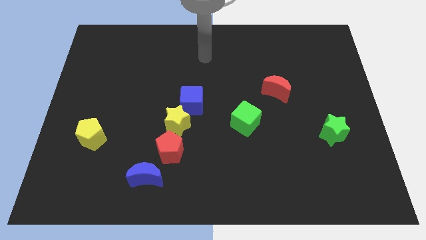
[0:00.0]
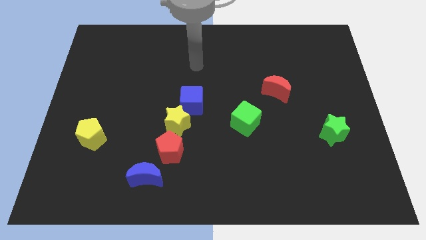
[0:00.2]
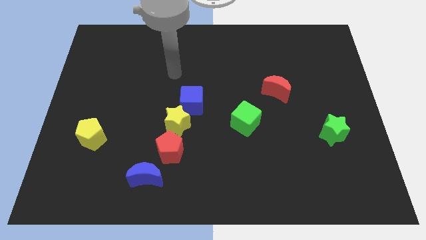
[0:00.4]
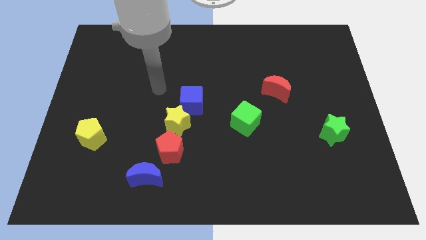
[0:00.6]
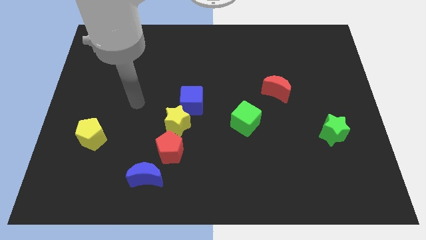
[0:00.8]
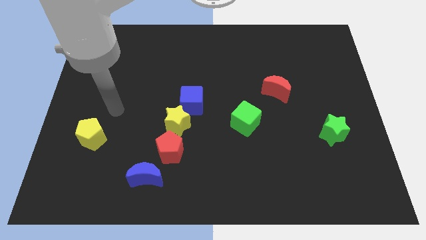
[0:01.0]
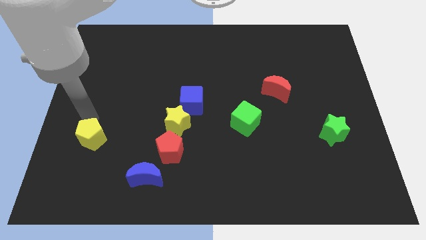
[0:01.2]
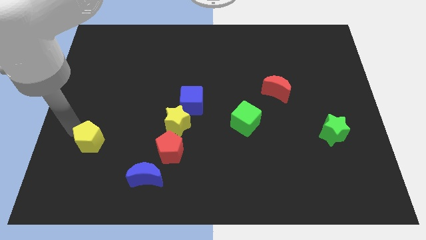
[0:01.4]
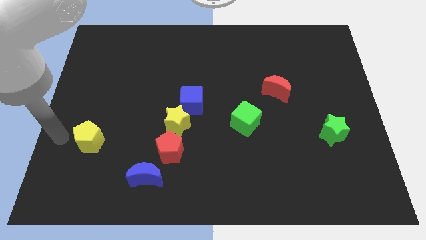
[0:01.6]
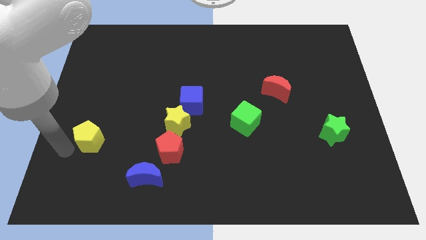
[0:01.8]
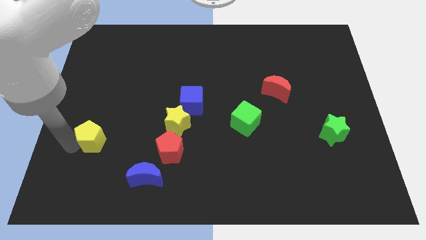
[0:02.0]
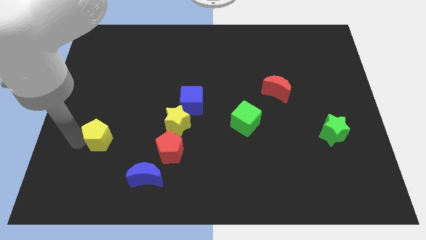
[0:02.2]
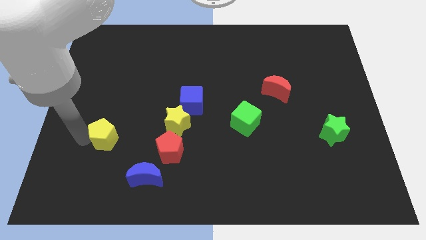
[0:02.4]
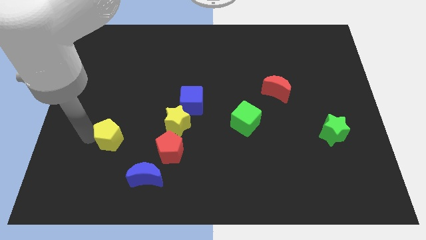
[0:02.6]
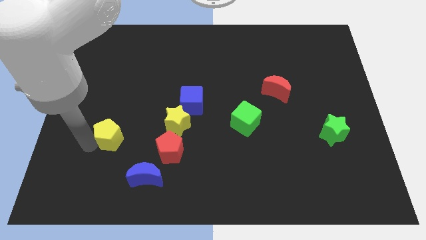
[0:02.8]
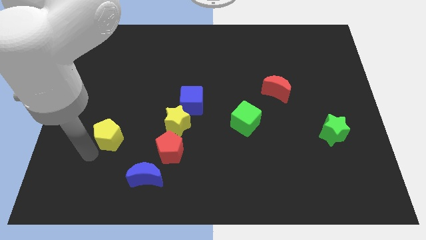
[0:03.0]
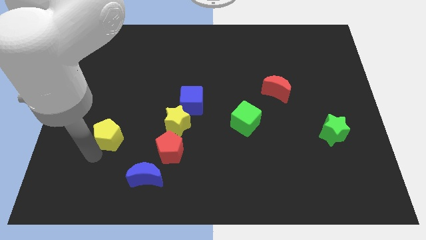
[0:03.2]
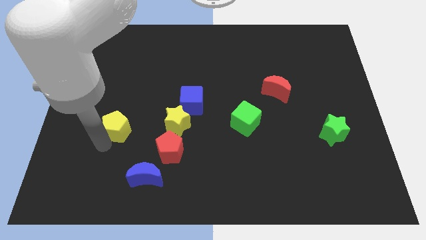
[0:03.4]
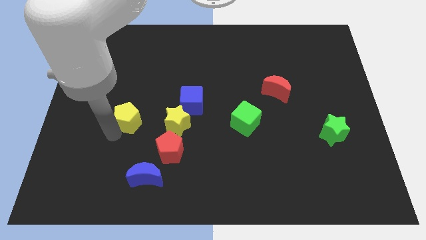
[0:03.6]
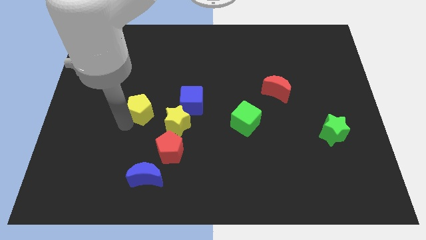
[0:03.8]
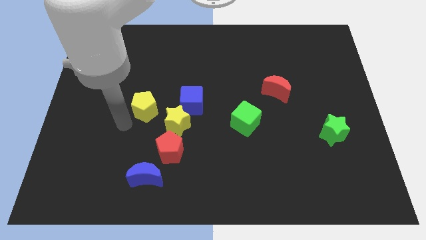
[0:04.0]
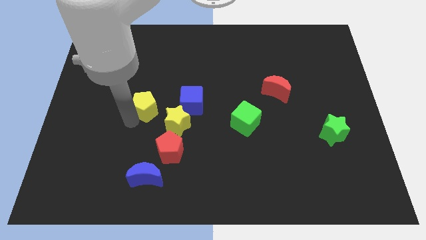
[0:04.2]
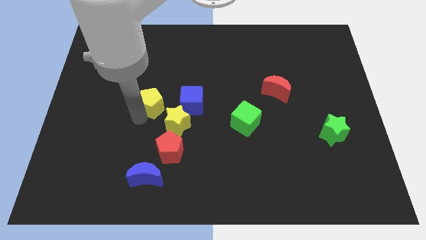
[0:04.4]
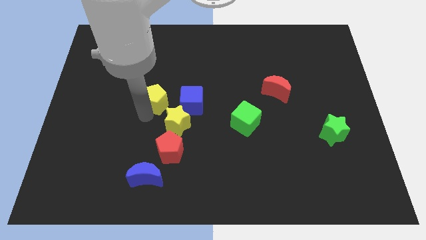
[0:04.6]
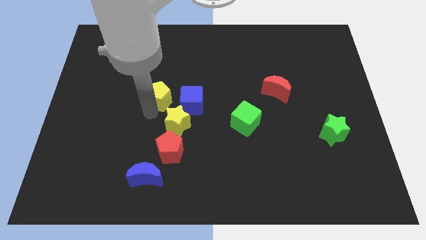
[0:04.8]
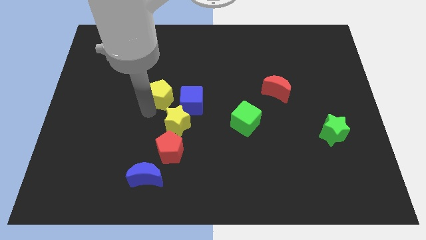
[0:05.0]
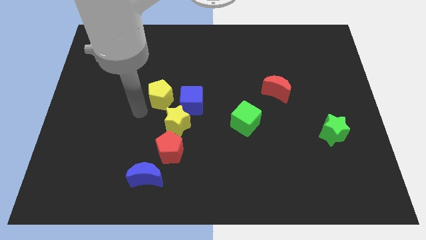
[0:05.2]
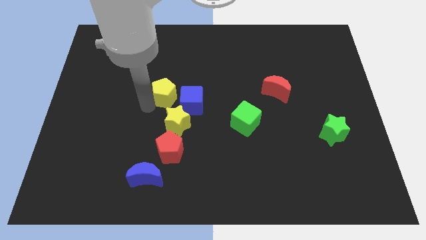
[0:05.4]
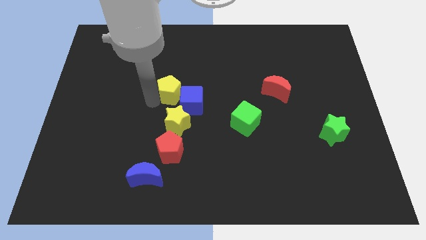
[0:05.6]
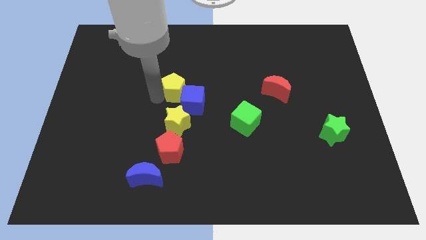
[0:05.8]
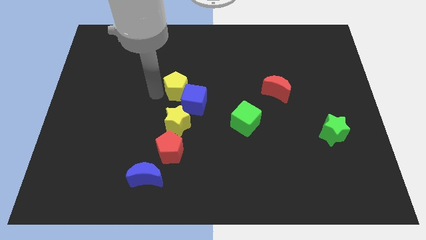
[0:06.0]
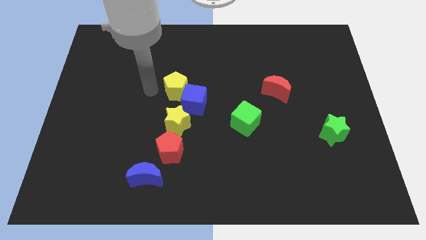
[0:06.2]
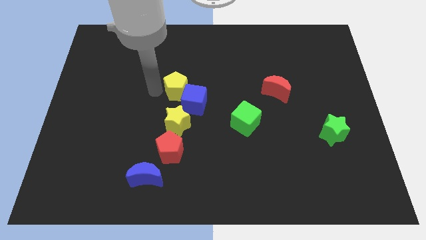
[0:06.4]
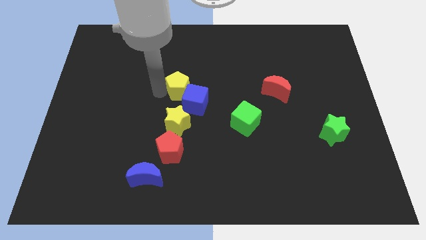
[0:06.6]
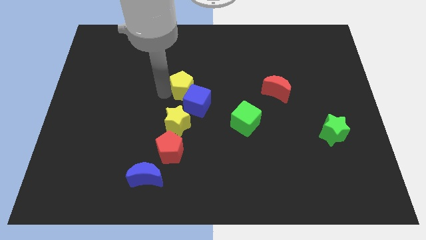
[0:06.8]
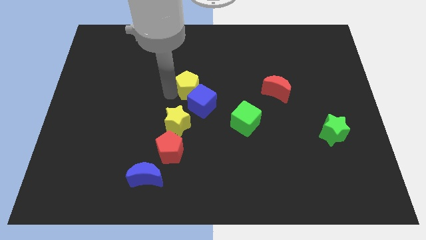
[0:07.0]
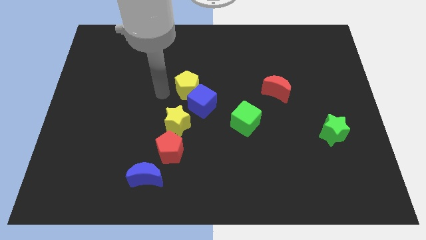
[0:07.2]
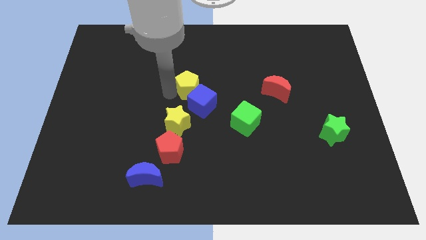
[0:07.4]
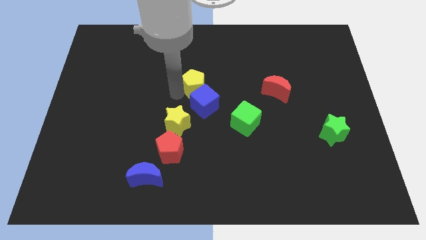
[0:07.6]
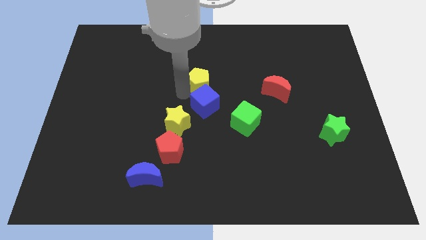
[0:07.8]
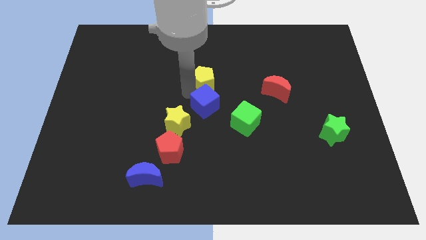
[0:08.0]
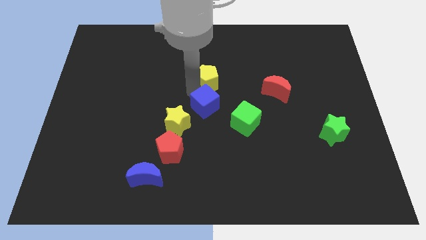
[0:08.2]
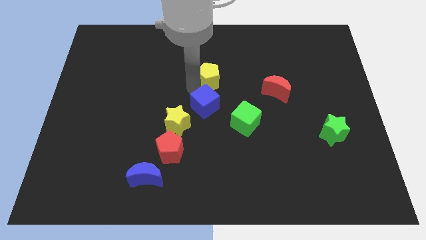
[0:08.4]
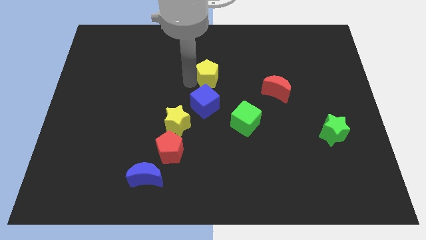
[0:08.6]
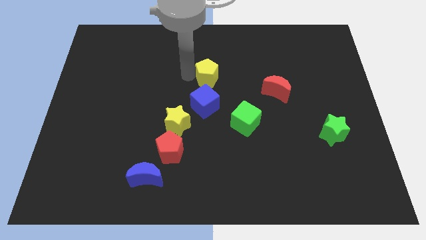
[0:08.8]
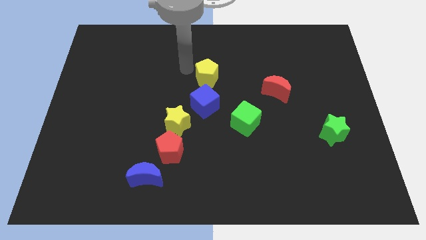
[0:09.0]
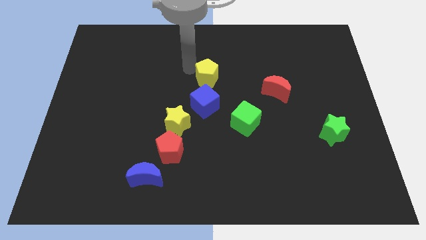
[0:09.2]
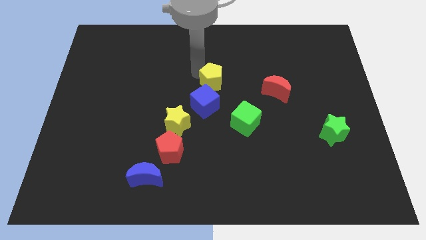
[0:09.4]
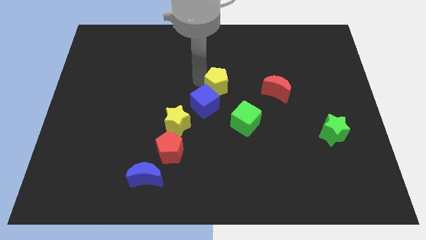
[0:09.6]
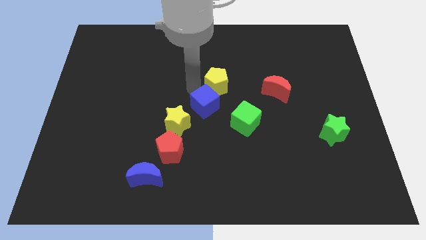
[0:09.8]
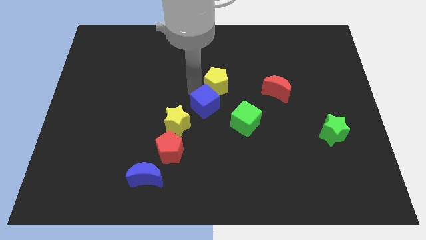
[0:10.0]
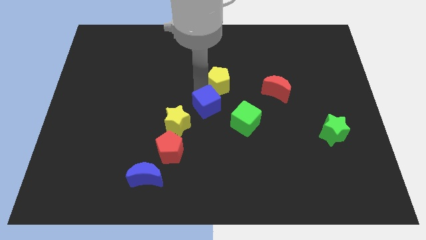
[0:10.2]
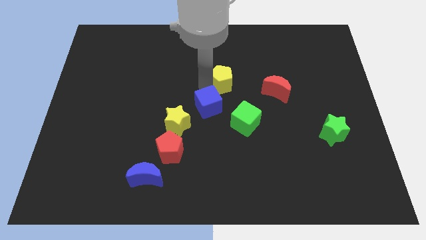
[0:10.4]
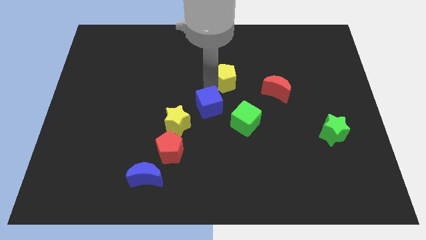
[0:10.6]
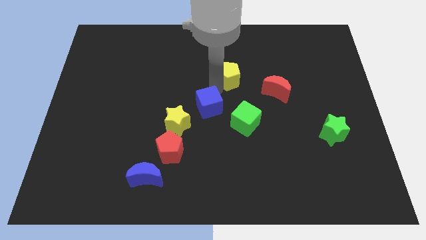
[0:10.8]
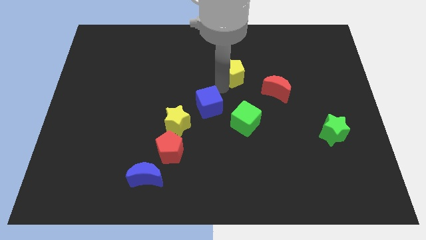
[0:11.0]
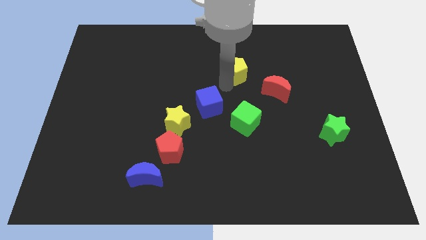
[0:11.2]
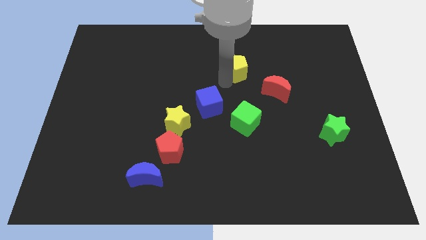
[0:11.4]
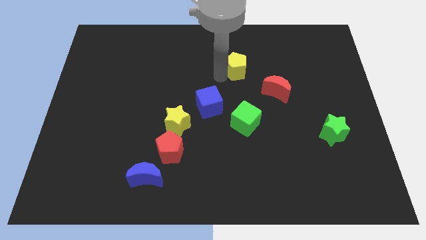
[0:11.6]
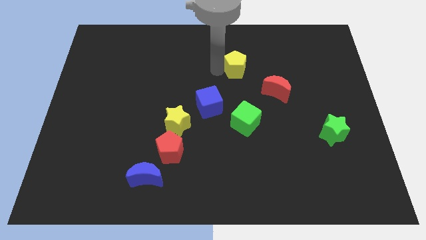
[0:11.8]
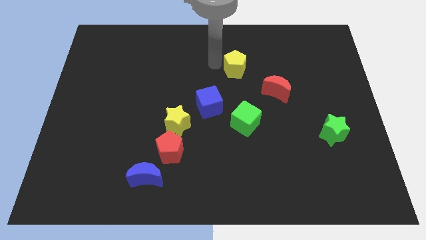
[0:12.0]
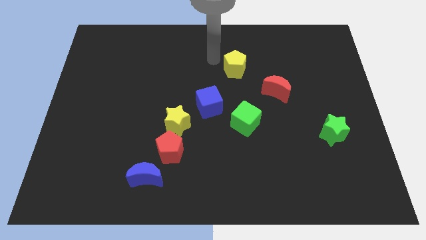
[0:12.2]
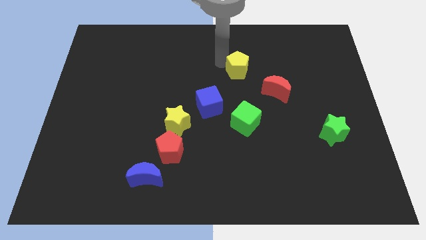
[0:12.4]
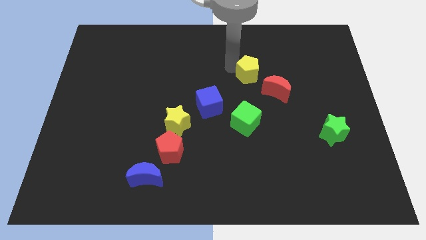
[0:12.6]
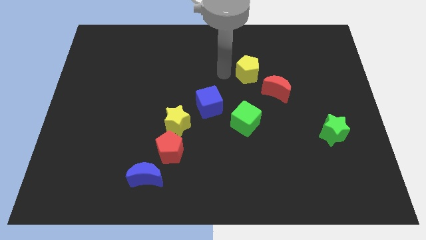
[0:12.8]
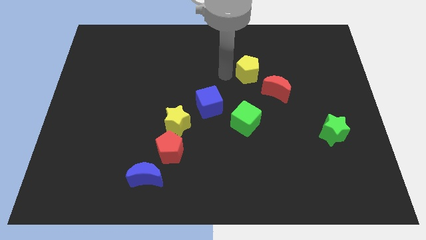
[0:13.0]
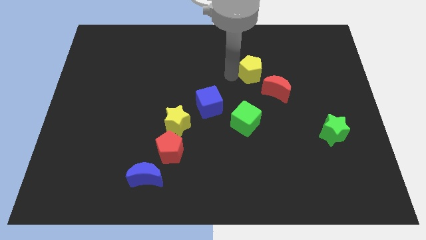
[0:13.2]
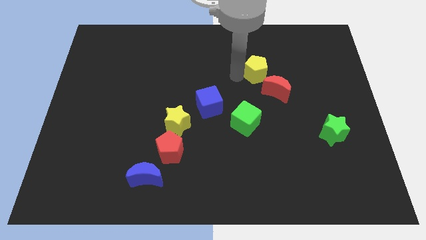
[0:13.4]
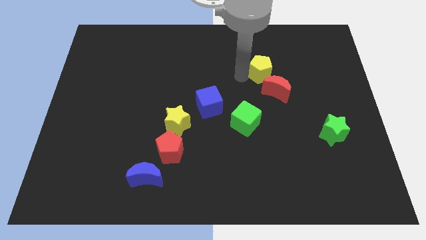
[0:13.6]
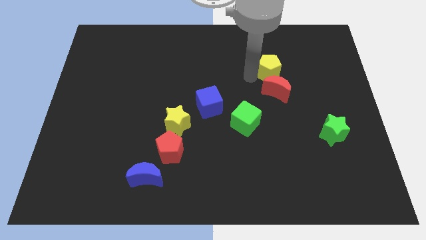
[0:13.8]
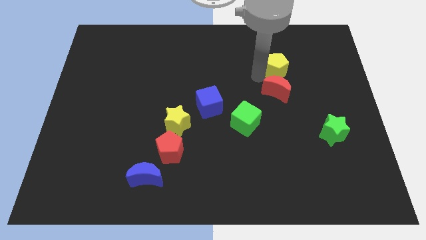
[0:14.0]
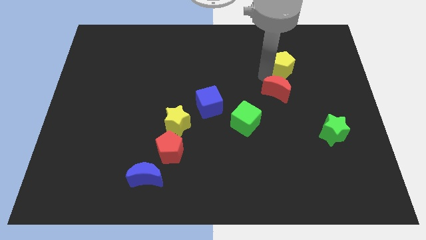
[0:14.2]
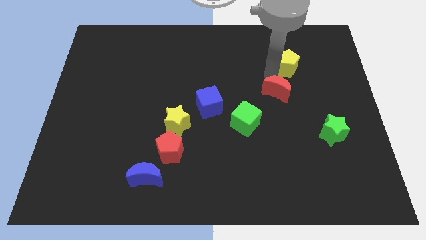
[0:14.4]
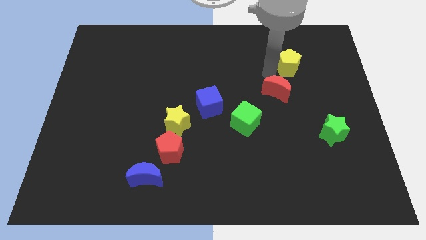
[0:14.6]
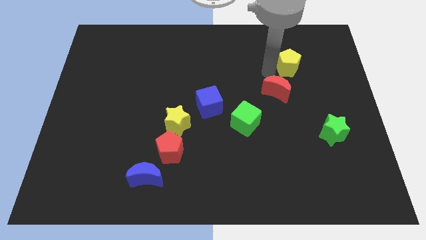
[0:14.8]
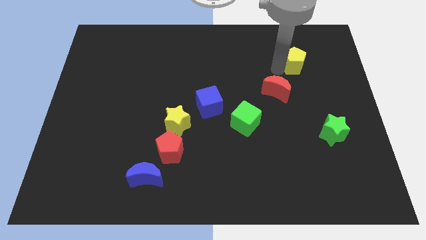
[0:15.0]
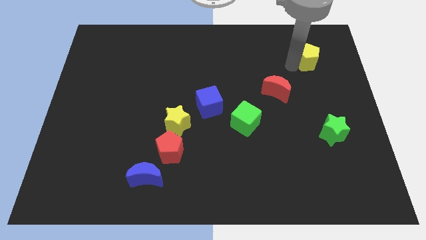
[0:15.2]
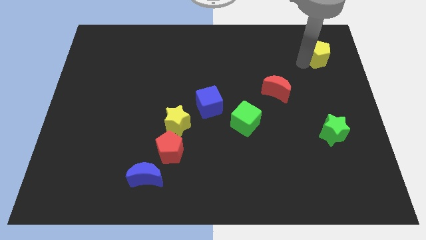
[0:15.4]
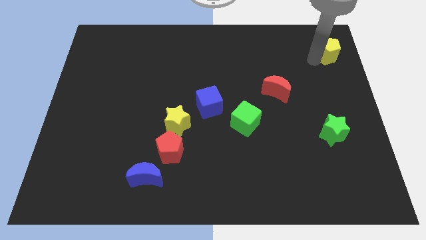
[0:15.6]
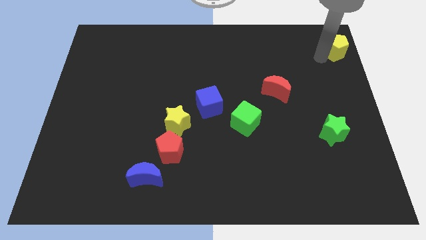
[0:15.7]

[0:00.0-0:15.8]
push the yellow pentagon to the upper right corner
